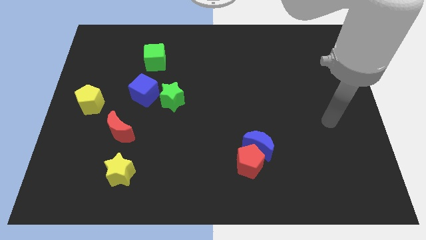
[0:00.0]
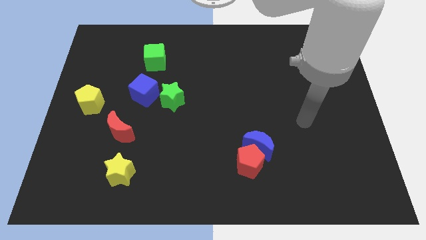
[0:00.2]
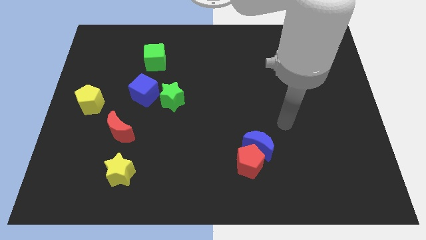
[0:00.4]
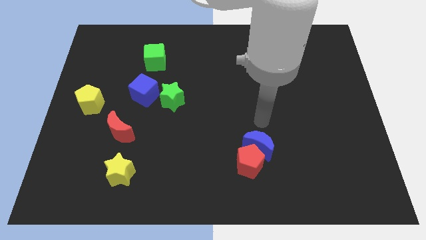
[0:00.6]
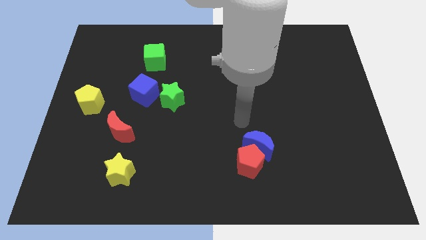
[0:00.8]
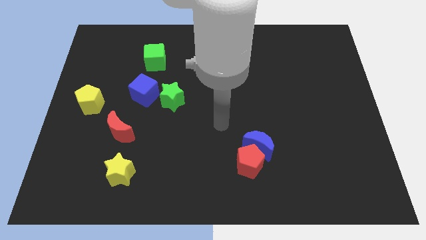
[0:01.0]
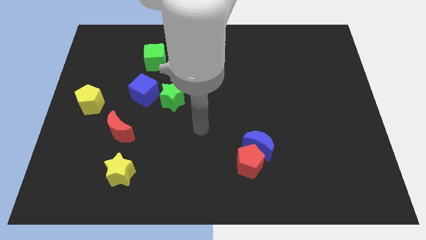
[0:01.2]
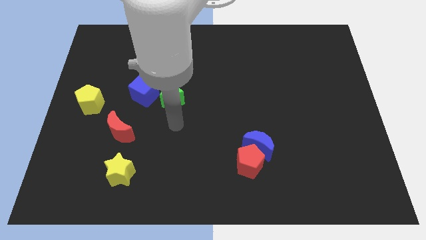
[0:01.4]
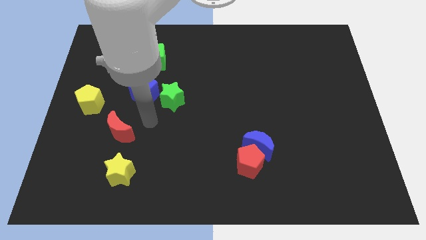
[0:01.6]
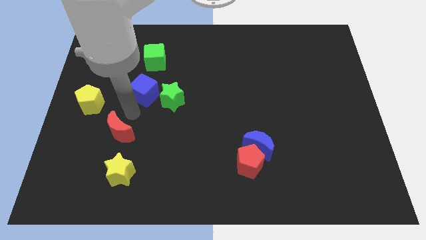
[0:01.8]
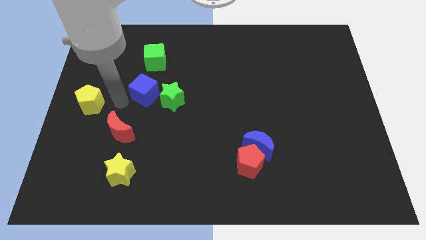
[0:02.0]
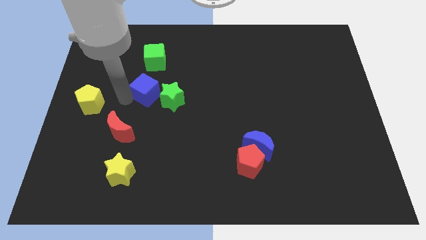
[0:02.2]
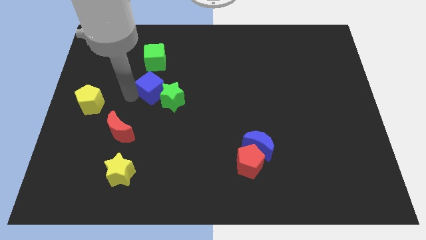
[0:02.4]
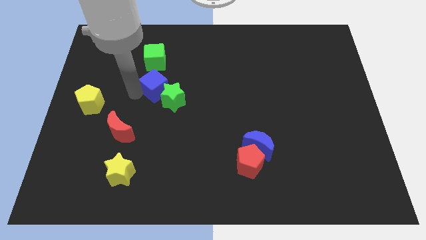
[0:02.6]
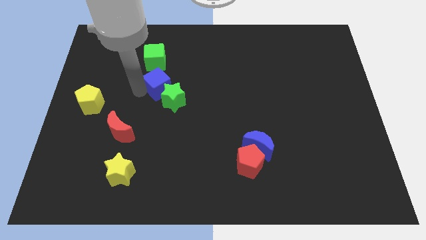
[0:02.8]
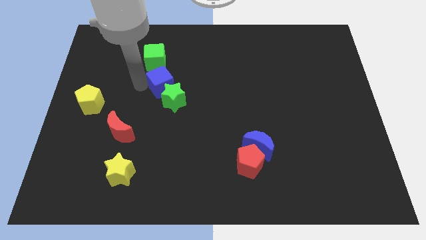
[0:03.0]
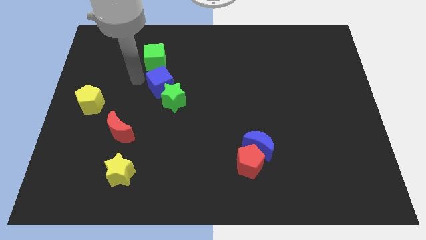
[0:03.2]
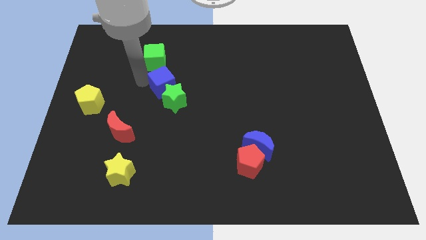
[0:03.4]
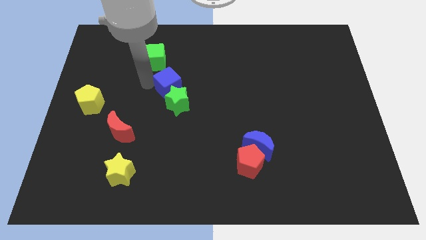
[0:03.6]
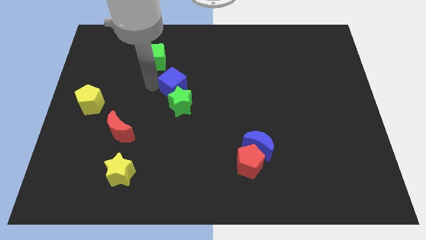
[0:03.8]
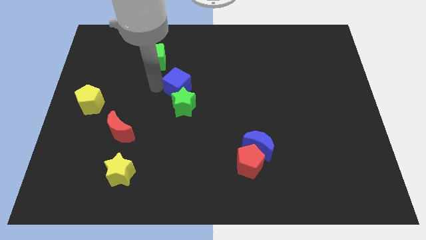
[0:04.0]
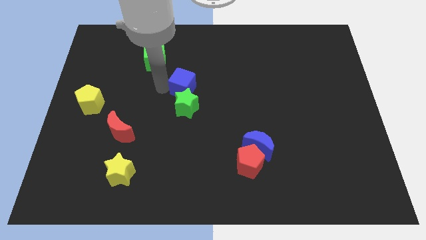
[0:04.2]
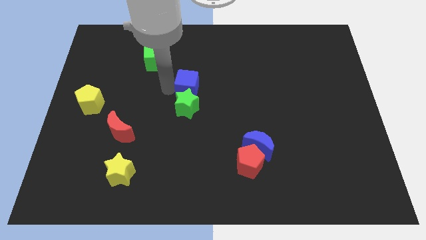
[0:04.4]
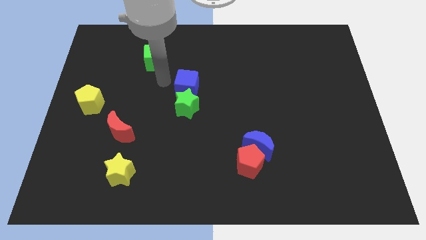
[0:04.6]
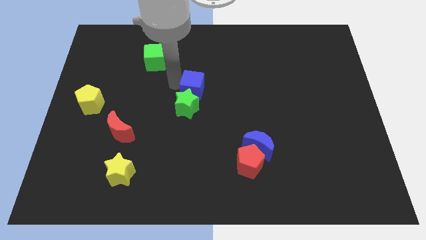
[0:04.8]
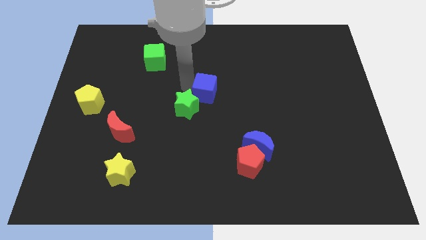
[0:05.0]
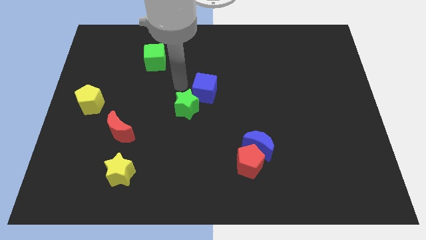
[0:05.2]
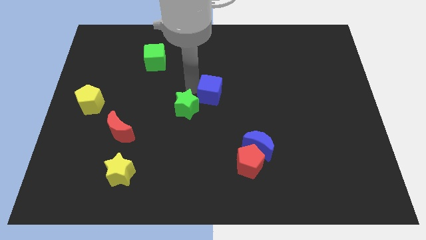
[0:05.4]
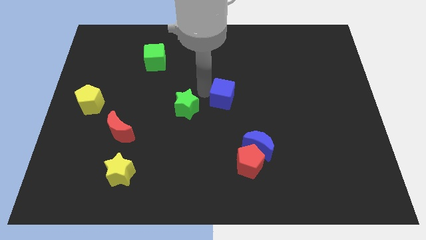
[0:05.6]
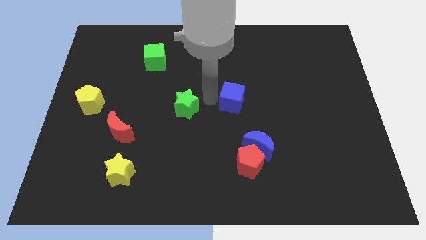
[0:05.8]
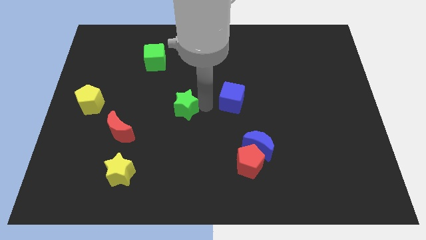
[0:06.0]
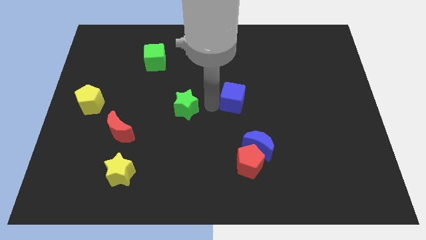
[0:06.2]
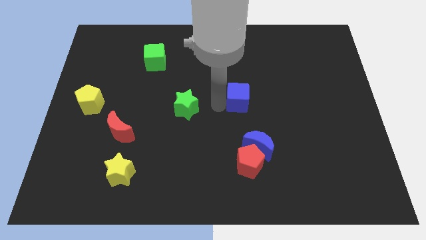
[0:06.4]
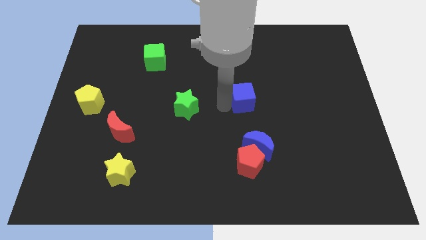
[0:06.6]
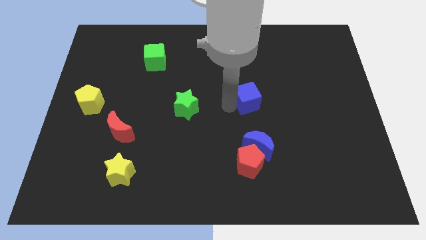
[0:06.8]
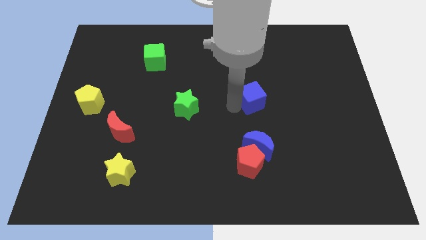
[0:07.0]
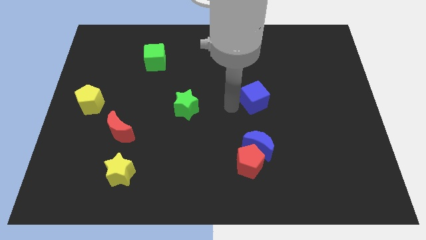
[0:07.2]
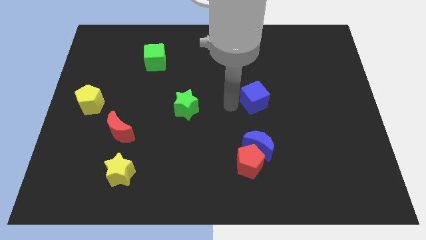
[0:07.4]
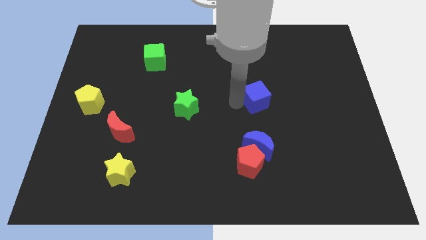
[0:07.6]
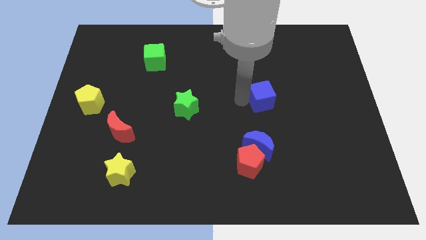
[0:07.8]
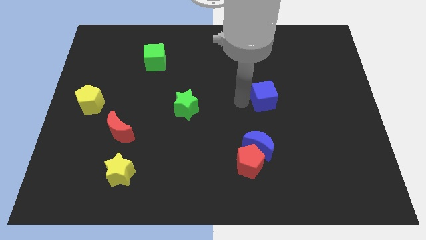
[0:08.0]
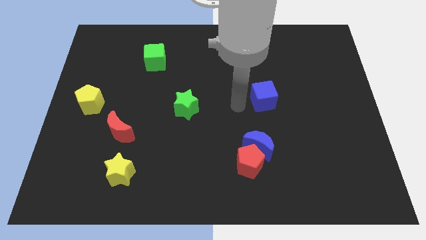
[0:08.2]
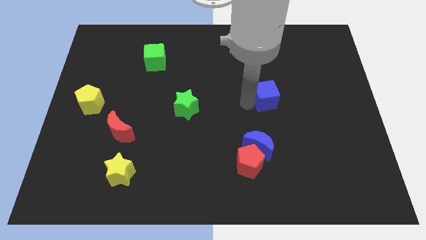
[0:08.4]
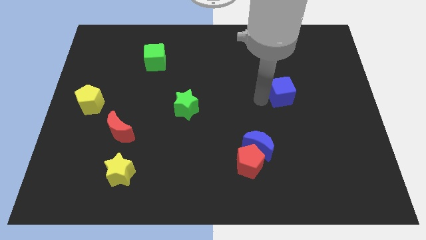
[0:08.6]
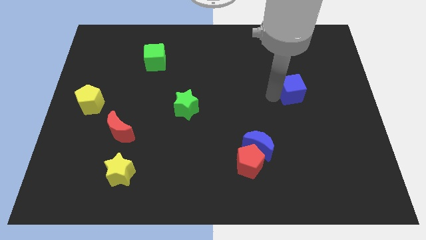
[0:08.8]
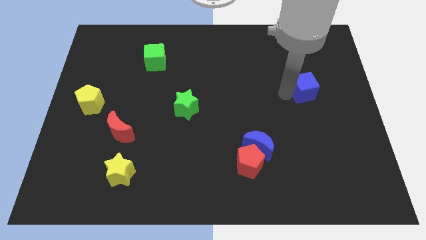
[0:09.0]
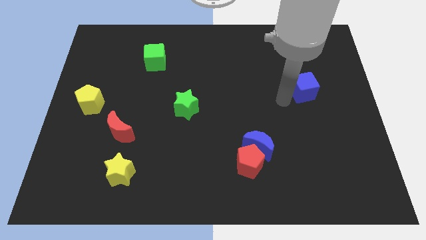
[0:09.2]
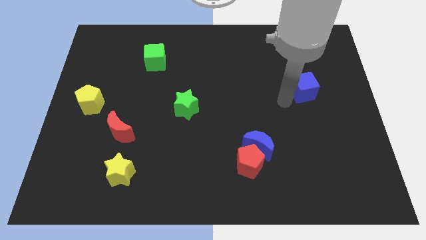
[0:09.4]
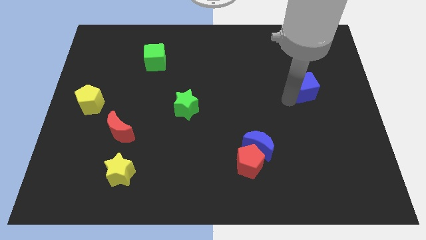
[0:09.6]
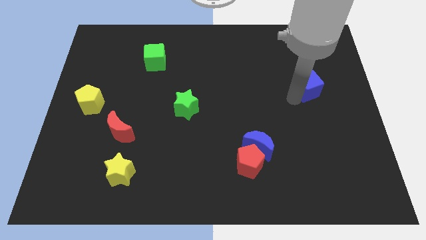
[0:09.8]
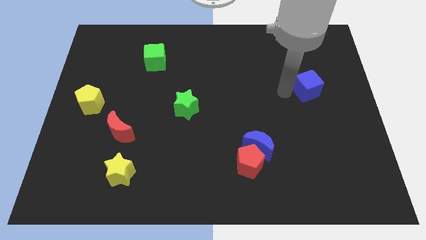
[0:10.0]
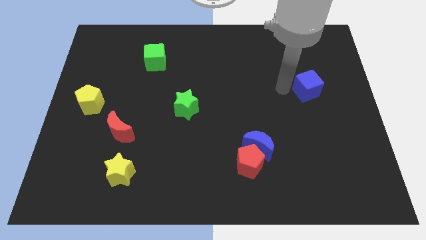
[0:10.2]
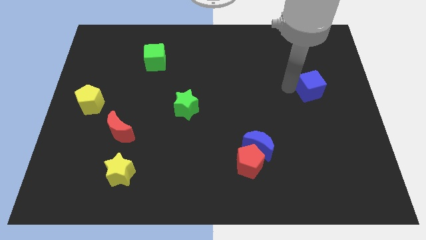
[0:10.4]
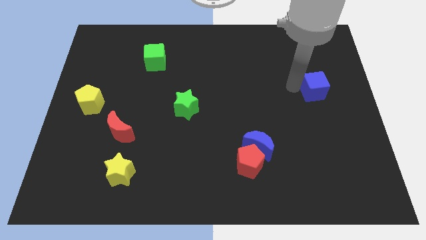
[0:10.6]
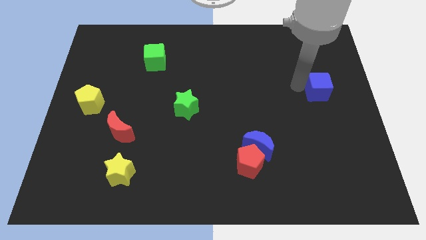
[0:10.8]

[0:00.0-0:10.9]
push the blue cube to the right side

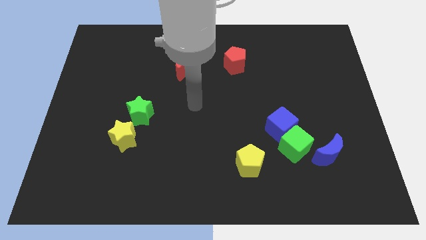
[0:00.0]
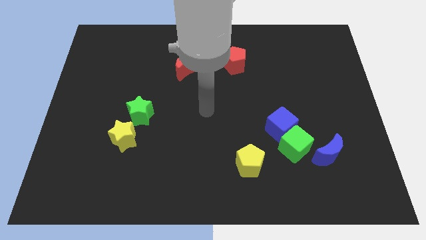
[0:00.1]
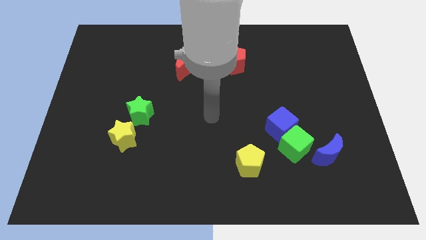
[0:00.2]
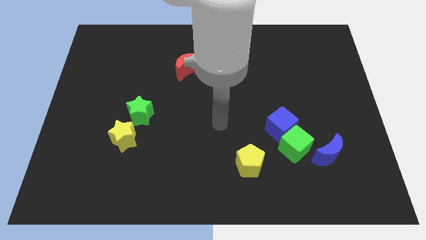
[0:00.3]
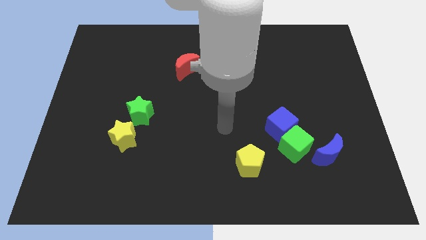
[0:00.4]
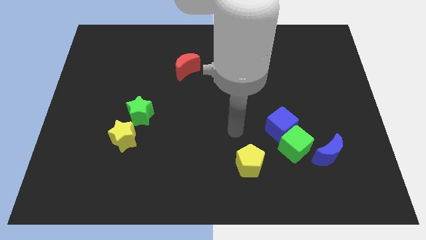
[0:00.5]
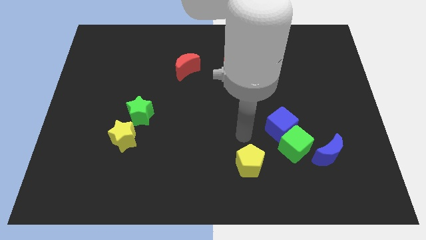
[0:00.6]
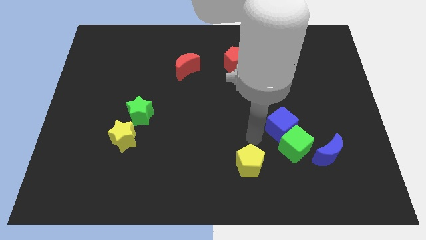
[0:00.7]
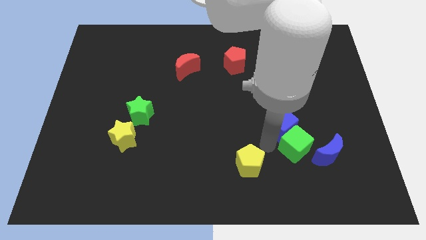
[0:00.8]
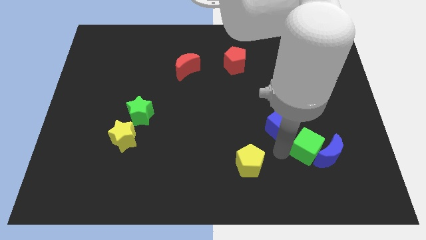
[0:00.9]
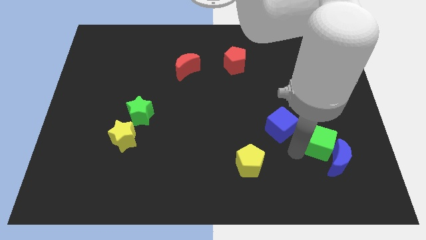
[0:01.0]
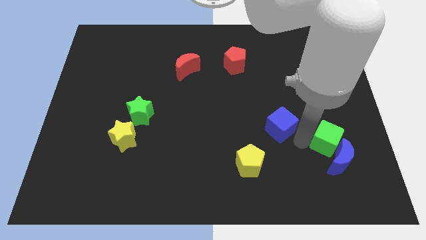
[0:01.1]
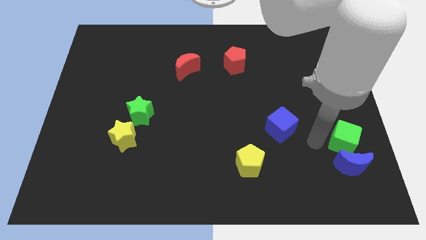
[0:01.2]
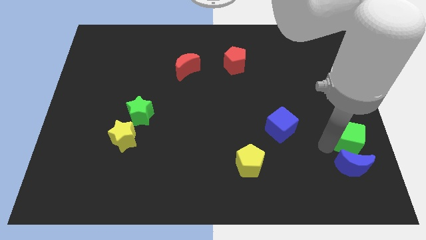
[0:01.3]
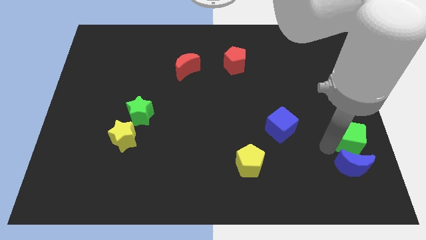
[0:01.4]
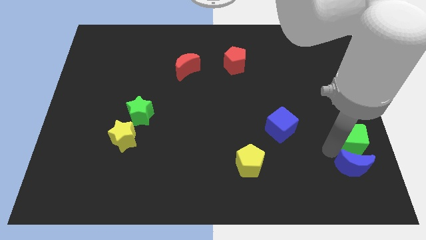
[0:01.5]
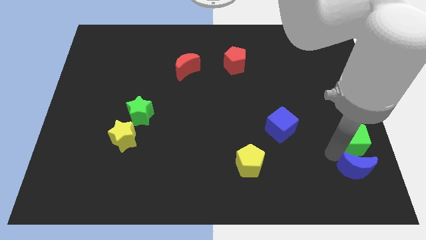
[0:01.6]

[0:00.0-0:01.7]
put the blue moon to the bottom right of the board
